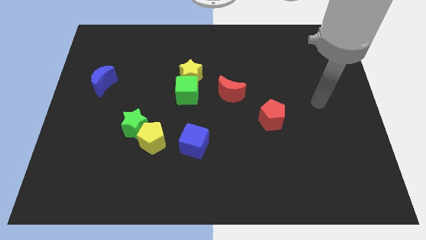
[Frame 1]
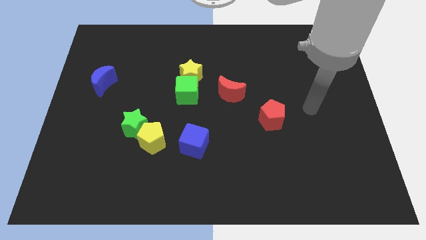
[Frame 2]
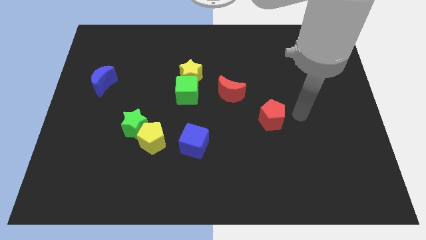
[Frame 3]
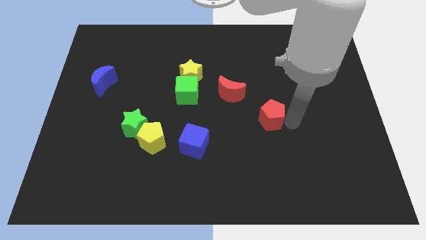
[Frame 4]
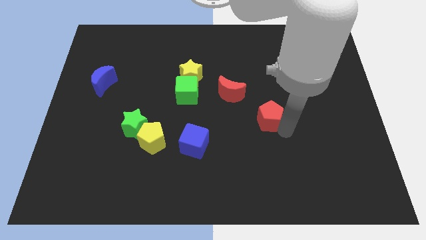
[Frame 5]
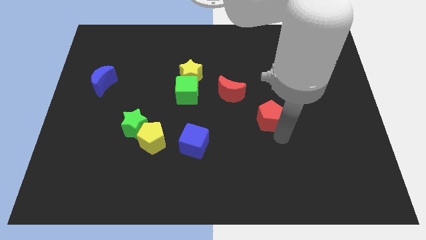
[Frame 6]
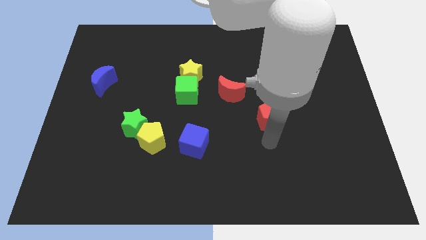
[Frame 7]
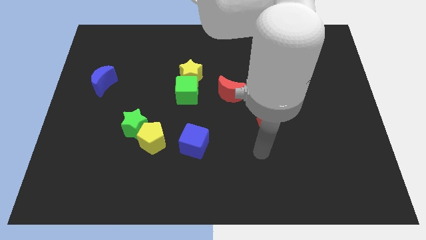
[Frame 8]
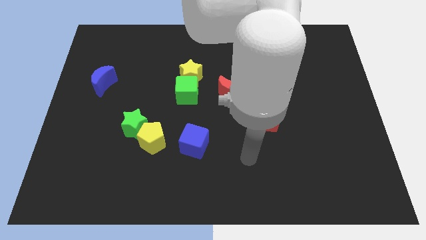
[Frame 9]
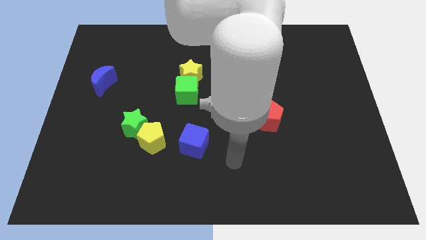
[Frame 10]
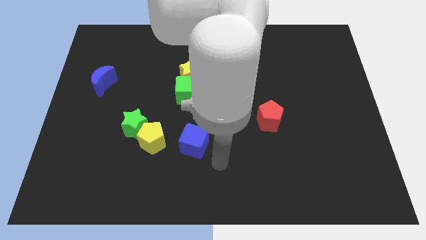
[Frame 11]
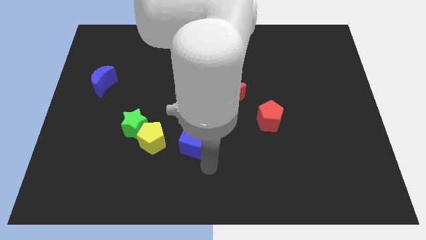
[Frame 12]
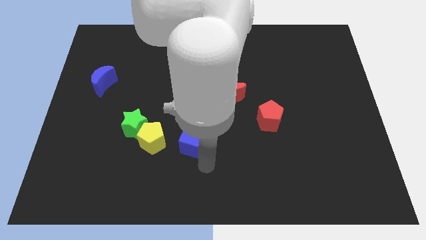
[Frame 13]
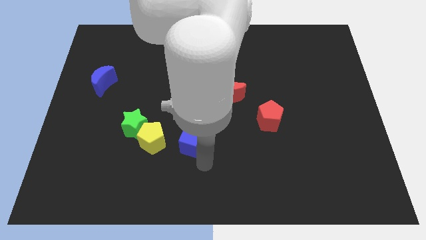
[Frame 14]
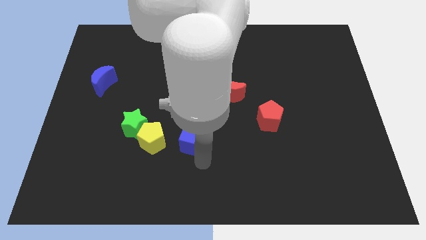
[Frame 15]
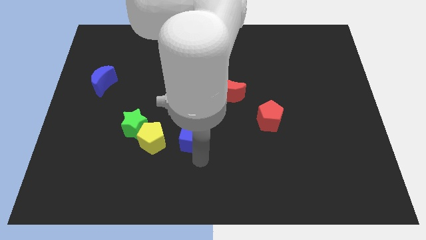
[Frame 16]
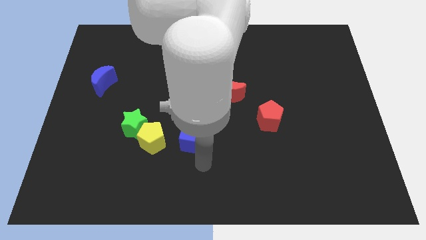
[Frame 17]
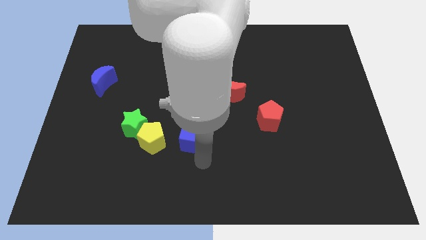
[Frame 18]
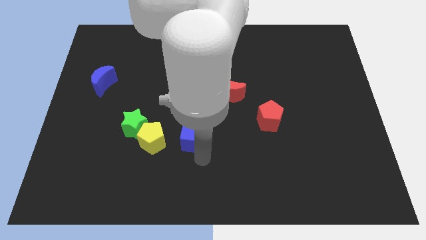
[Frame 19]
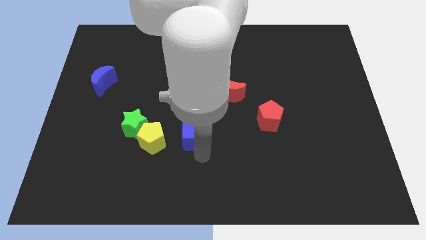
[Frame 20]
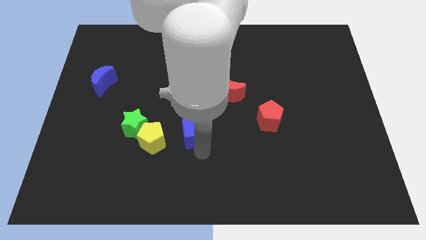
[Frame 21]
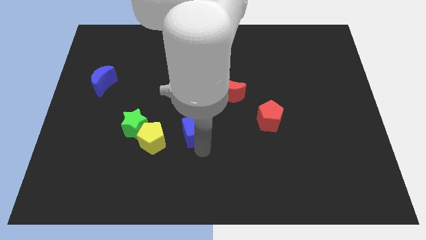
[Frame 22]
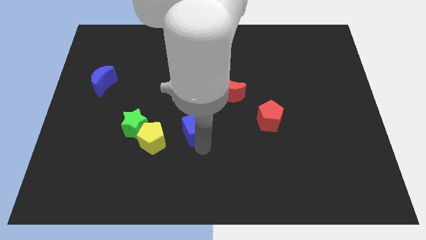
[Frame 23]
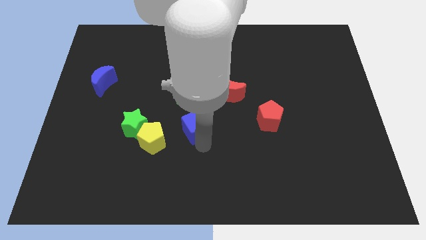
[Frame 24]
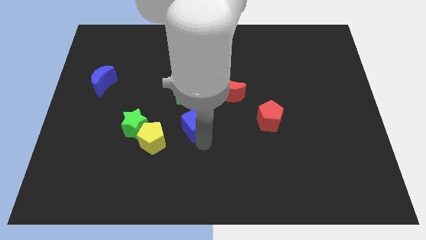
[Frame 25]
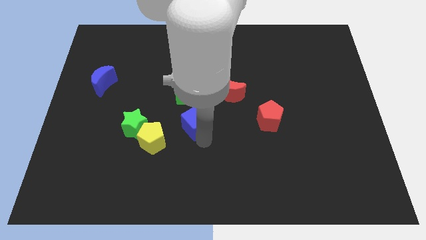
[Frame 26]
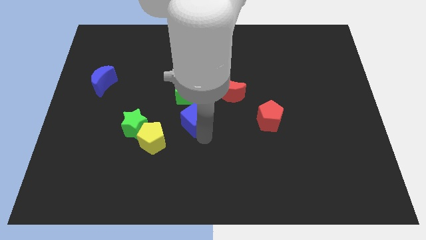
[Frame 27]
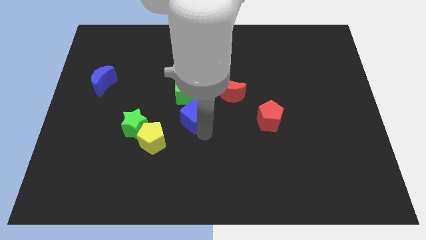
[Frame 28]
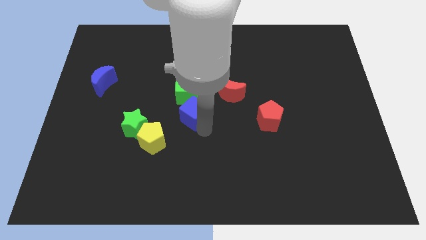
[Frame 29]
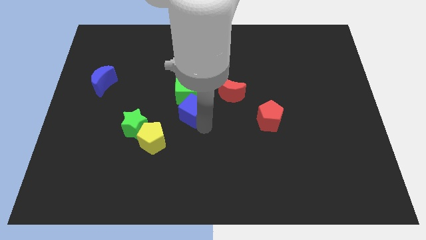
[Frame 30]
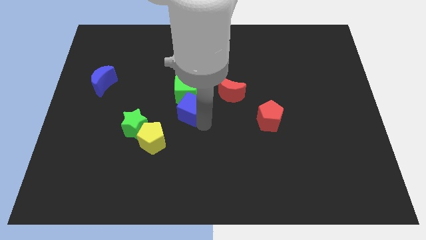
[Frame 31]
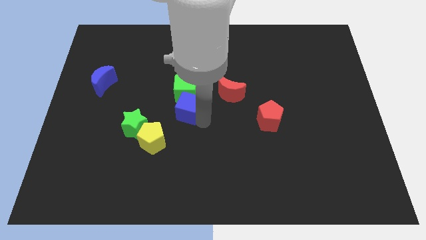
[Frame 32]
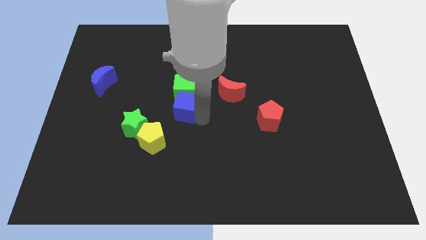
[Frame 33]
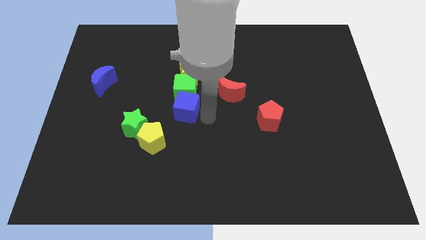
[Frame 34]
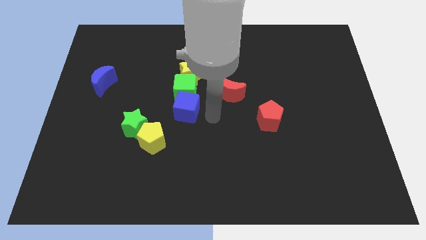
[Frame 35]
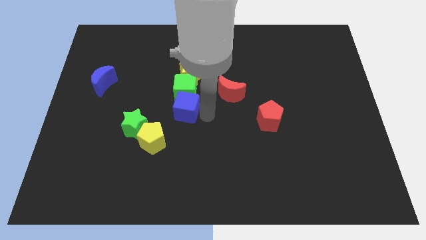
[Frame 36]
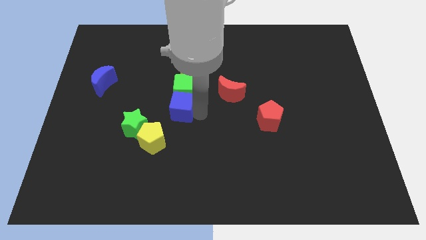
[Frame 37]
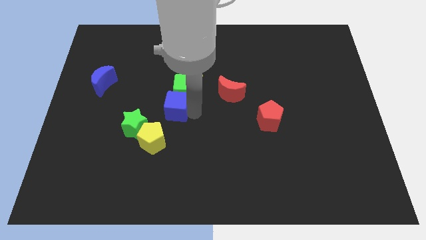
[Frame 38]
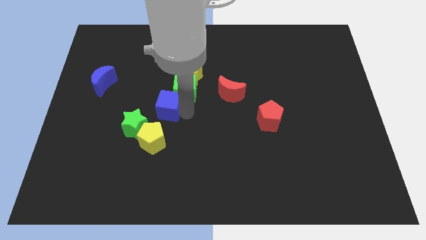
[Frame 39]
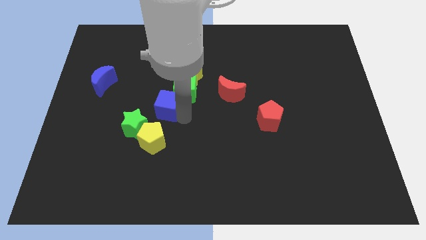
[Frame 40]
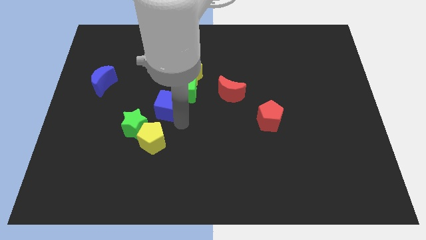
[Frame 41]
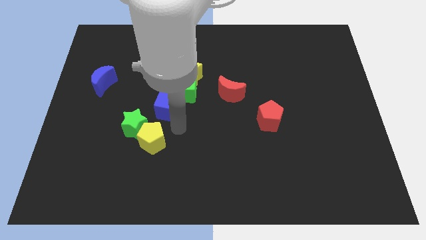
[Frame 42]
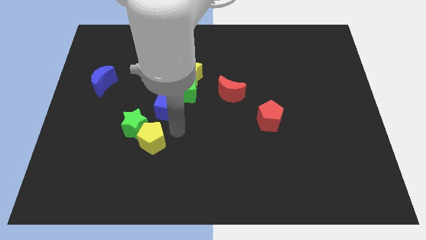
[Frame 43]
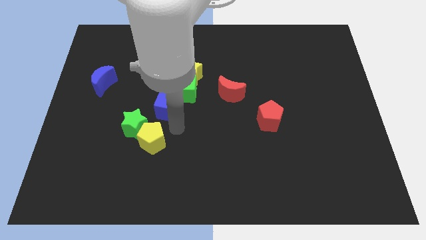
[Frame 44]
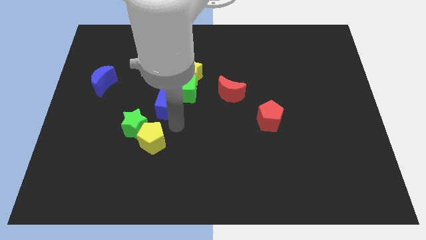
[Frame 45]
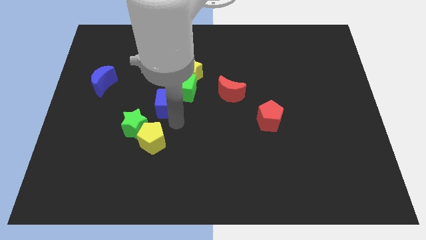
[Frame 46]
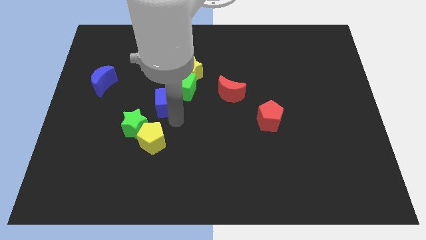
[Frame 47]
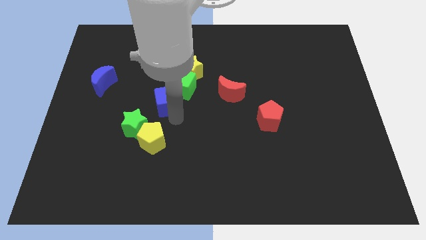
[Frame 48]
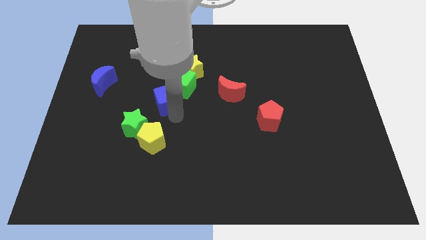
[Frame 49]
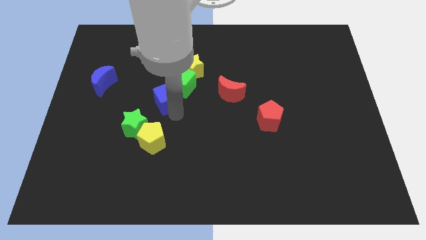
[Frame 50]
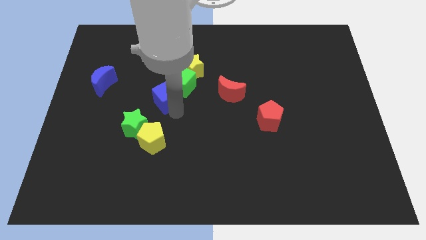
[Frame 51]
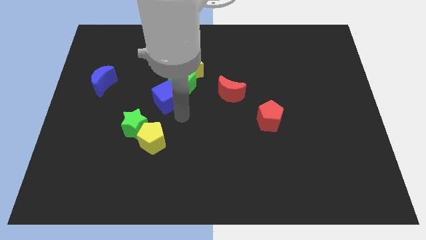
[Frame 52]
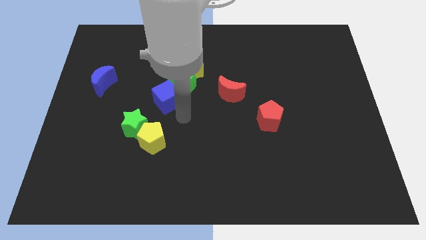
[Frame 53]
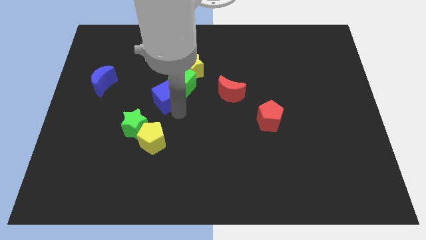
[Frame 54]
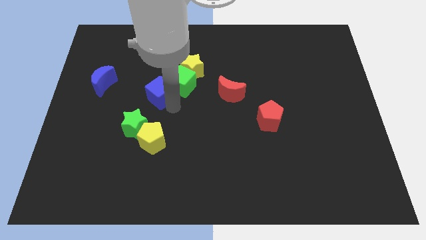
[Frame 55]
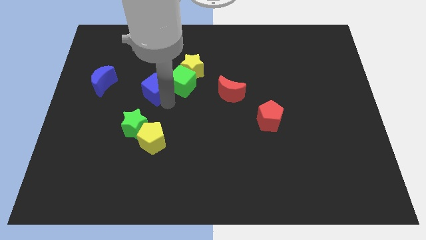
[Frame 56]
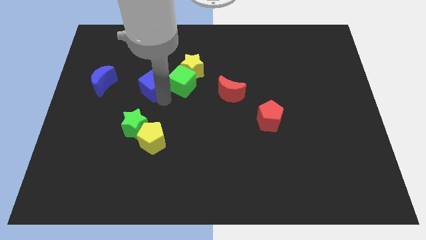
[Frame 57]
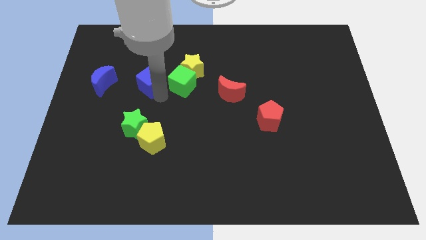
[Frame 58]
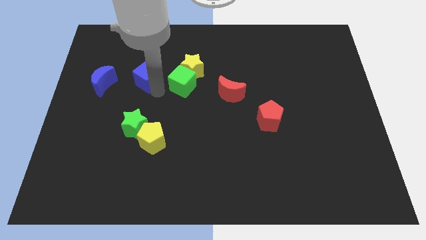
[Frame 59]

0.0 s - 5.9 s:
slide the blue cube up and then to the left

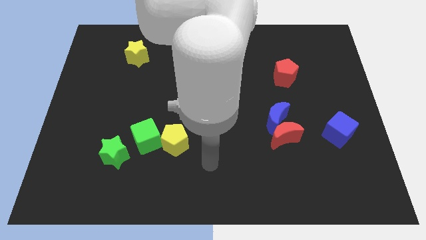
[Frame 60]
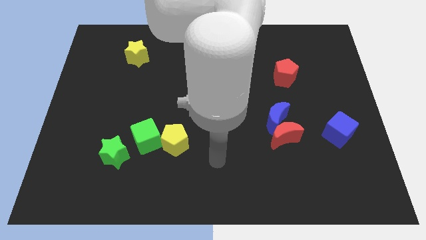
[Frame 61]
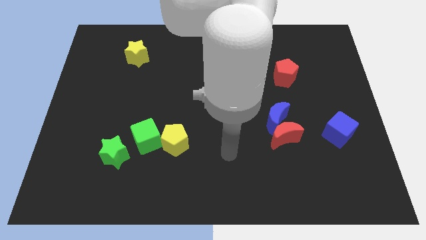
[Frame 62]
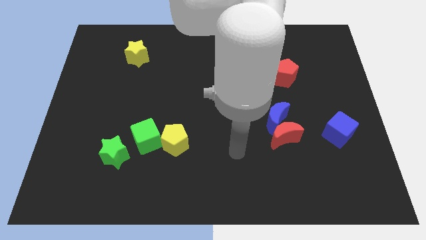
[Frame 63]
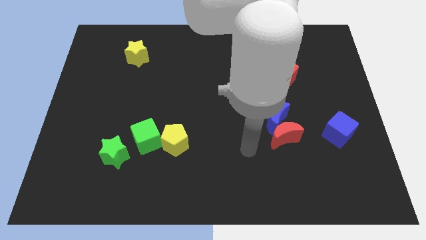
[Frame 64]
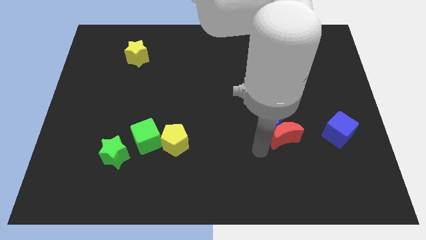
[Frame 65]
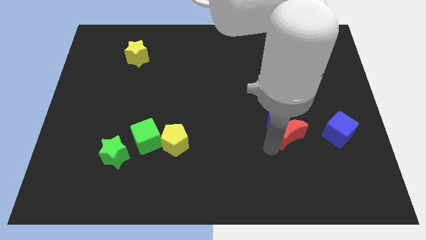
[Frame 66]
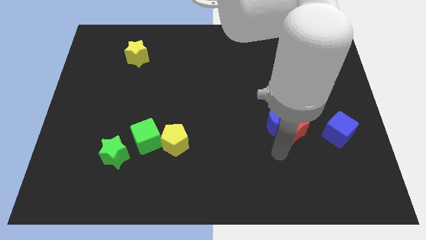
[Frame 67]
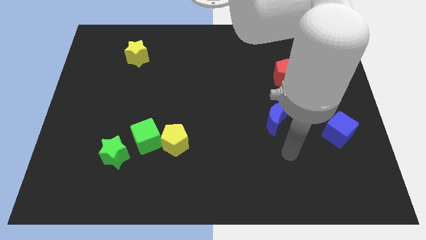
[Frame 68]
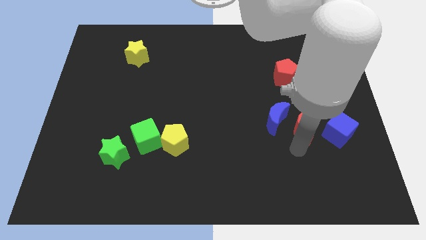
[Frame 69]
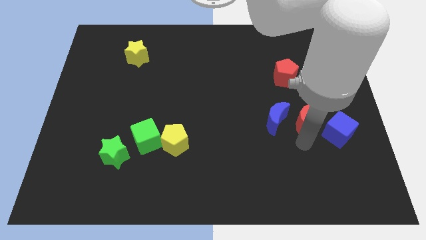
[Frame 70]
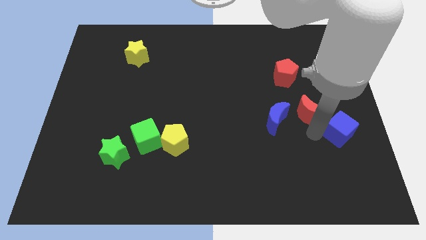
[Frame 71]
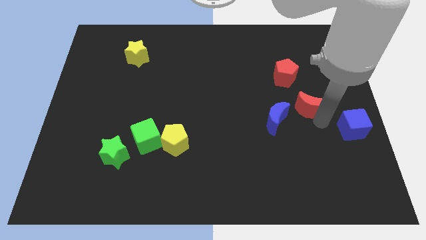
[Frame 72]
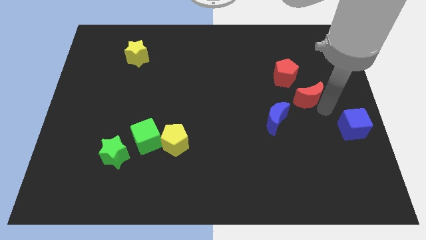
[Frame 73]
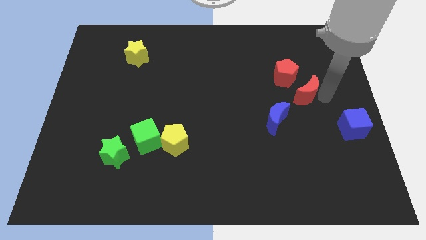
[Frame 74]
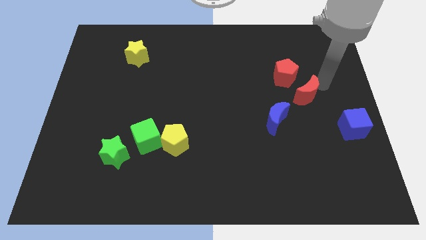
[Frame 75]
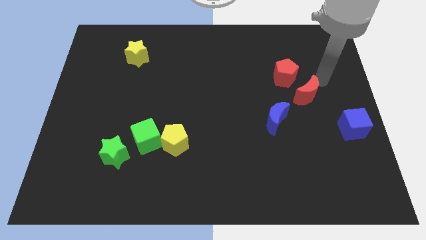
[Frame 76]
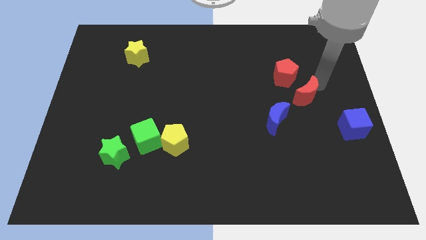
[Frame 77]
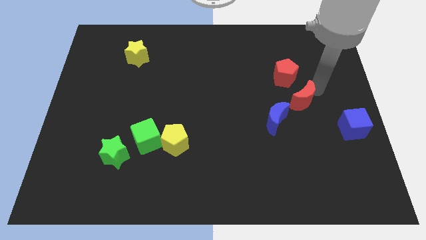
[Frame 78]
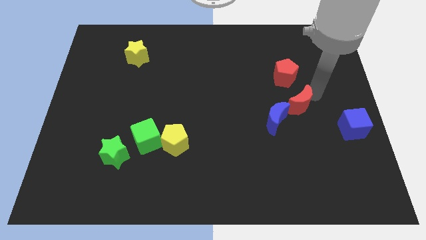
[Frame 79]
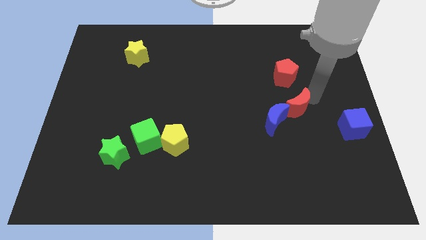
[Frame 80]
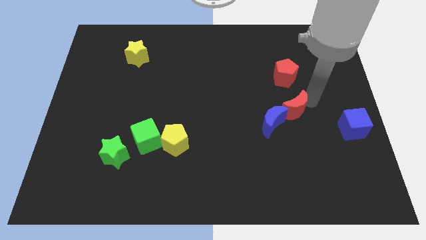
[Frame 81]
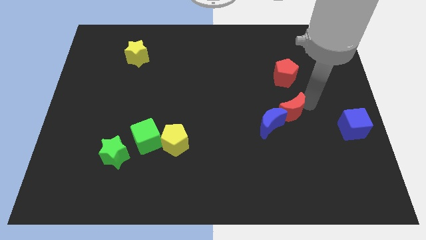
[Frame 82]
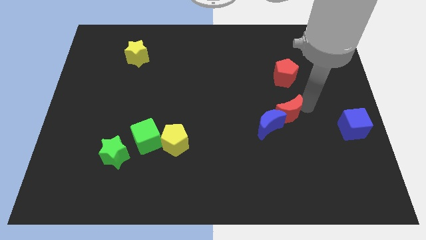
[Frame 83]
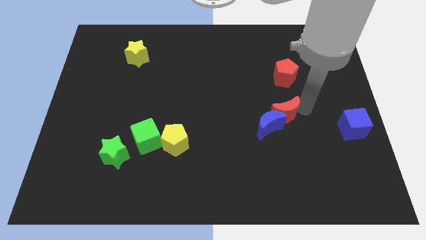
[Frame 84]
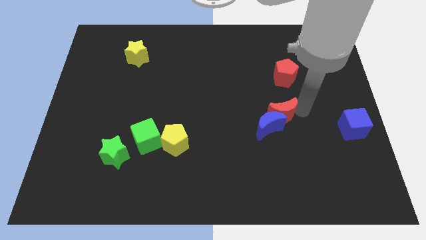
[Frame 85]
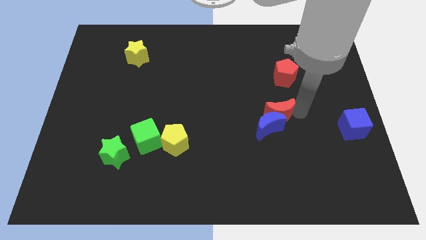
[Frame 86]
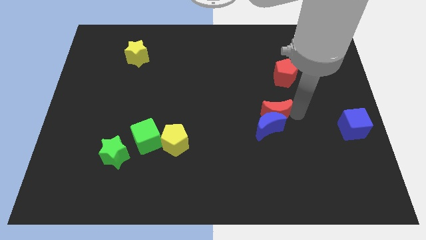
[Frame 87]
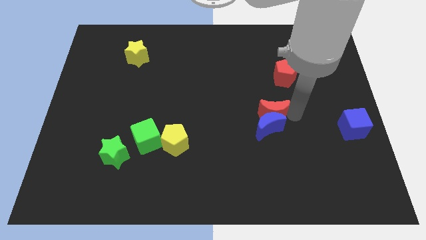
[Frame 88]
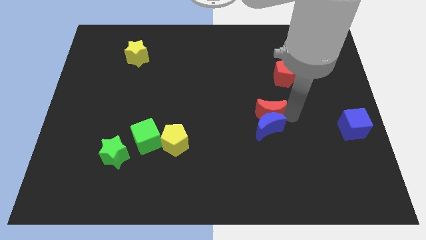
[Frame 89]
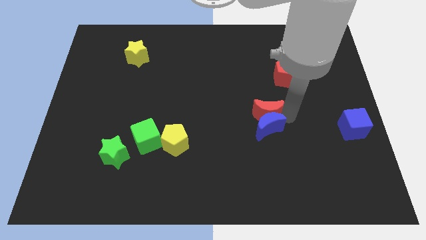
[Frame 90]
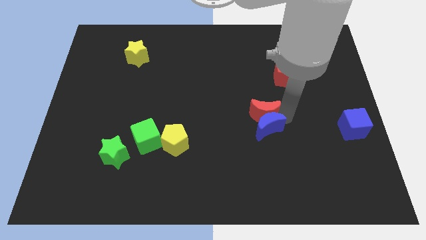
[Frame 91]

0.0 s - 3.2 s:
slightly push the red moon upwards and left diagonally
